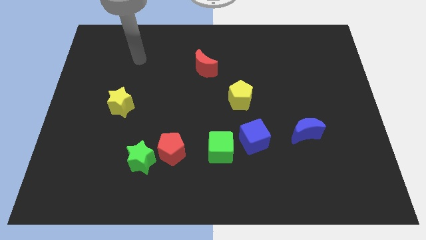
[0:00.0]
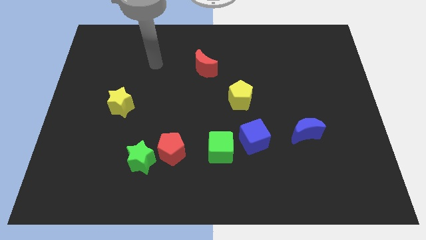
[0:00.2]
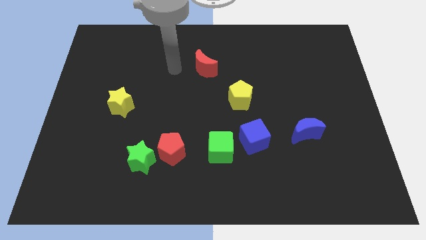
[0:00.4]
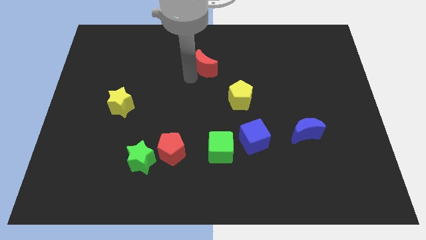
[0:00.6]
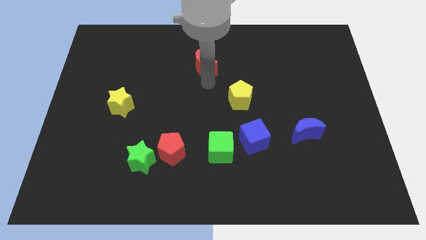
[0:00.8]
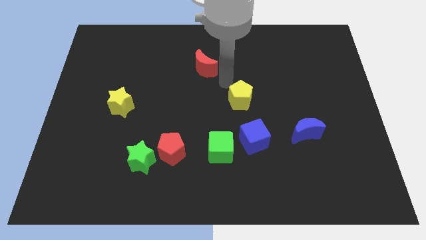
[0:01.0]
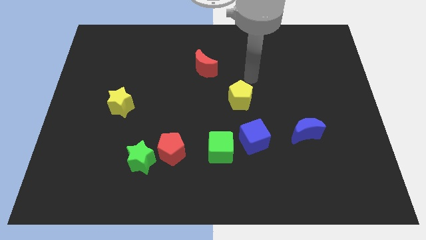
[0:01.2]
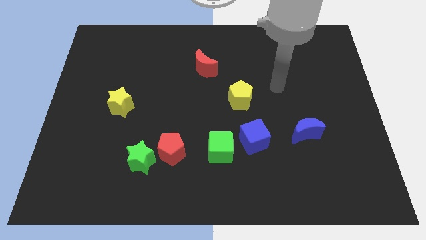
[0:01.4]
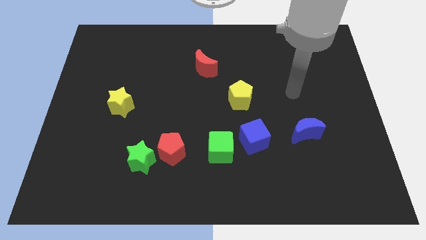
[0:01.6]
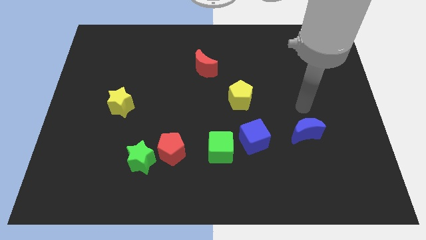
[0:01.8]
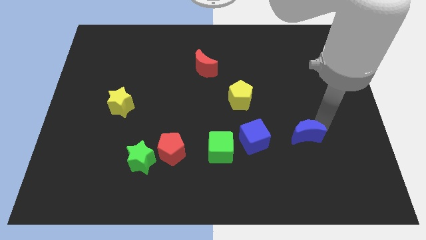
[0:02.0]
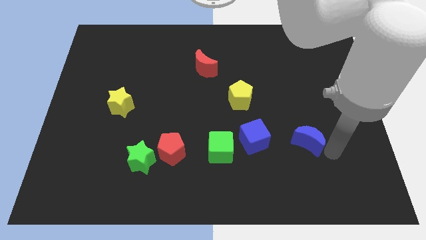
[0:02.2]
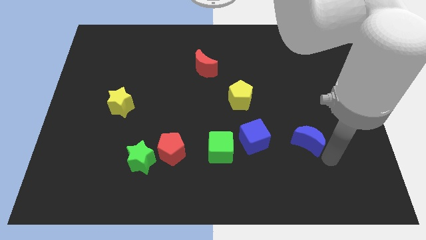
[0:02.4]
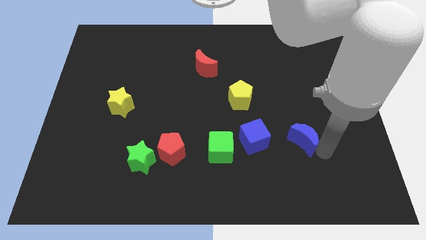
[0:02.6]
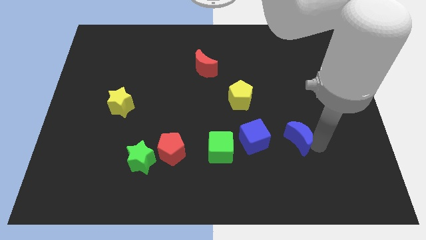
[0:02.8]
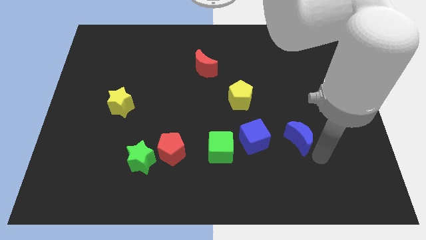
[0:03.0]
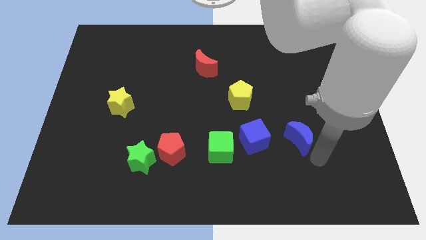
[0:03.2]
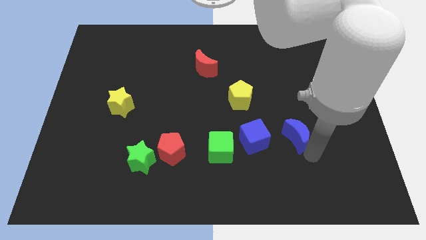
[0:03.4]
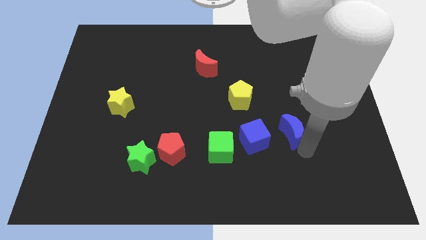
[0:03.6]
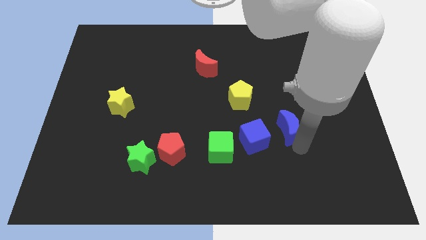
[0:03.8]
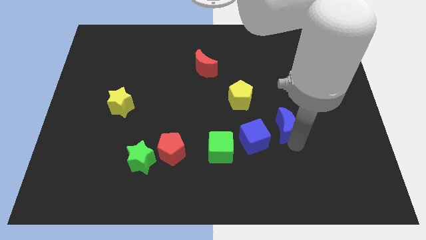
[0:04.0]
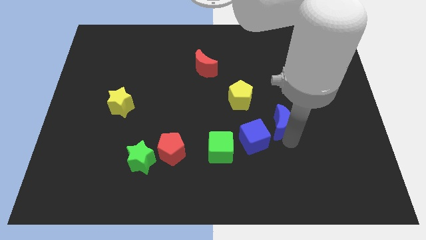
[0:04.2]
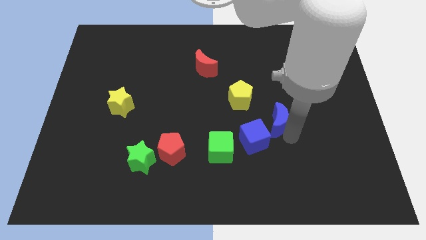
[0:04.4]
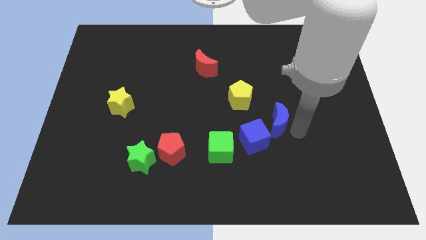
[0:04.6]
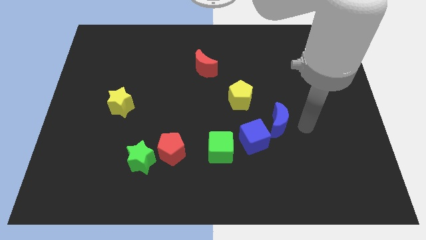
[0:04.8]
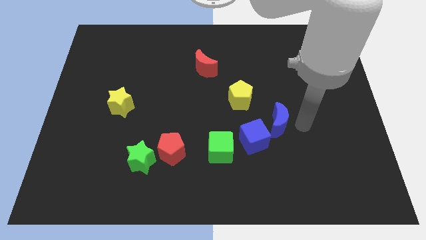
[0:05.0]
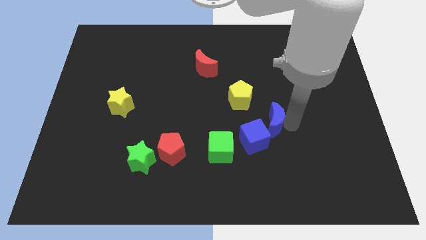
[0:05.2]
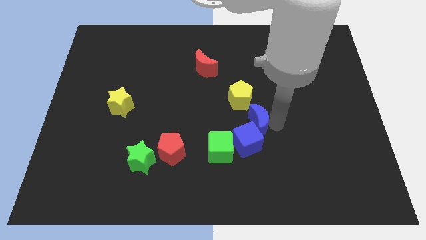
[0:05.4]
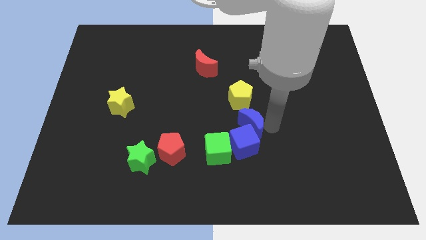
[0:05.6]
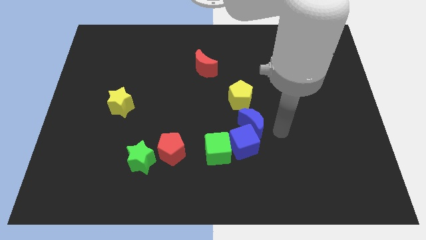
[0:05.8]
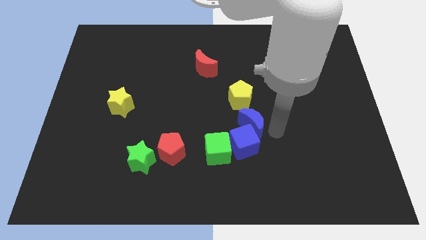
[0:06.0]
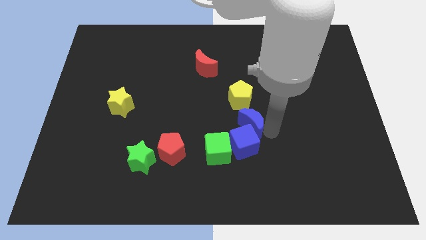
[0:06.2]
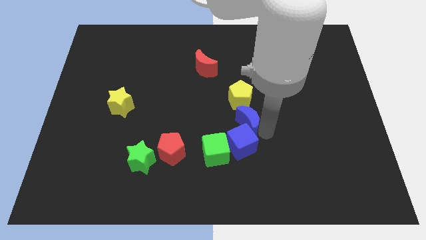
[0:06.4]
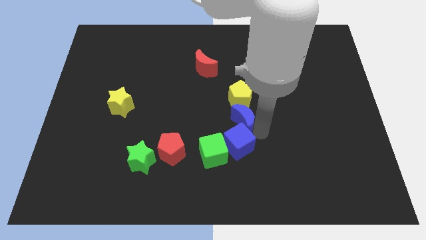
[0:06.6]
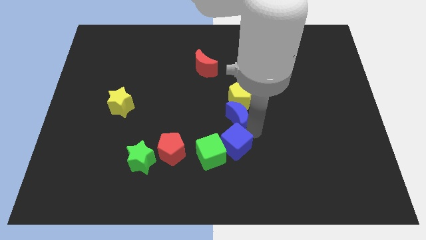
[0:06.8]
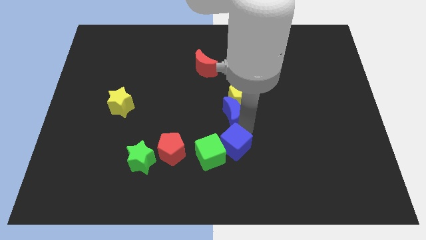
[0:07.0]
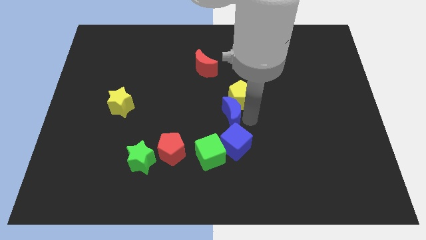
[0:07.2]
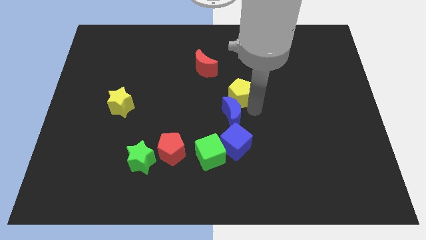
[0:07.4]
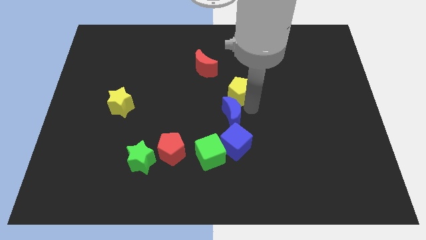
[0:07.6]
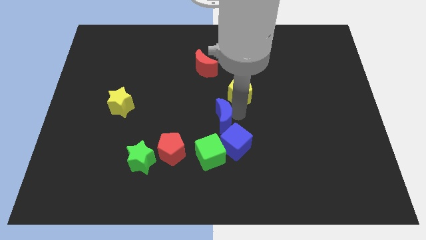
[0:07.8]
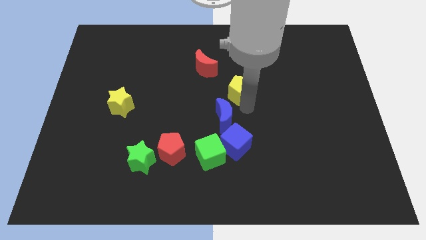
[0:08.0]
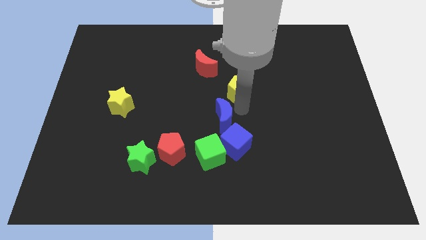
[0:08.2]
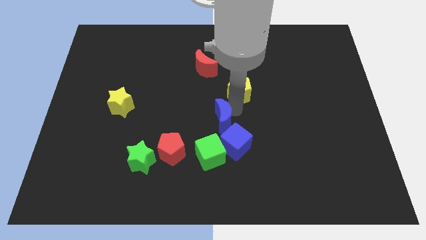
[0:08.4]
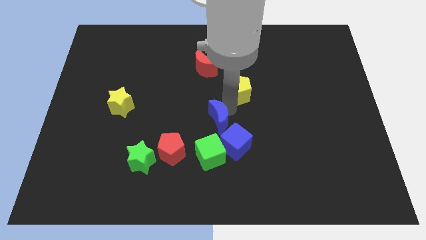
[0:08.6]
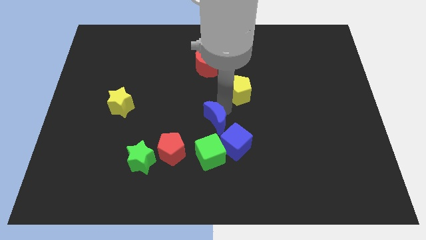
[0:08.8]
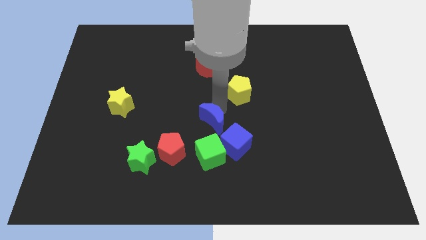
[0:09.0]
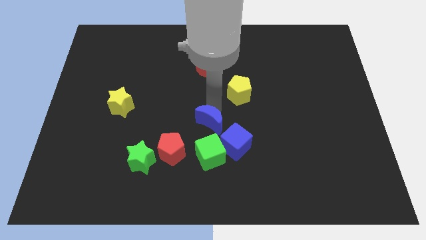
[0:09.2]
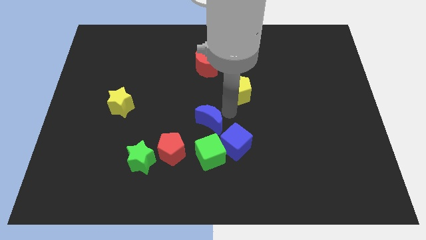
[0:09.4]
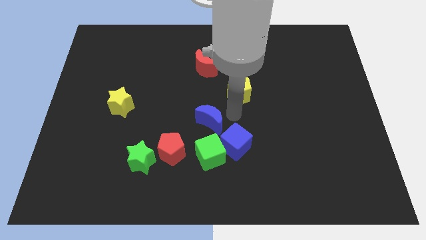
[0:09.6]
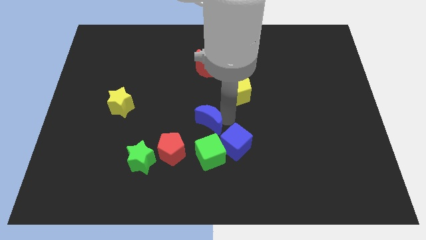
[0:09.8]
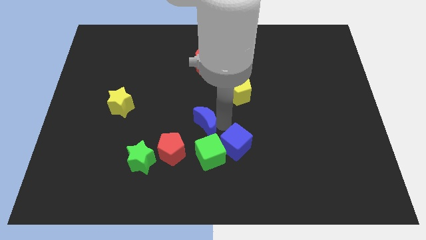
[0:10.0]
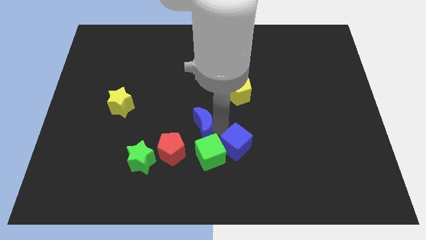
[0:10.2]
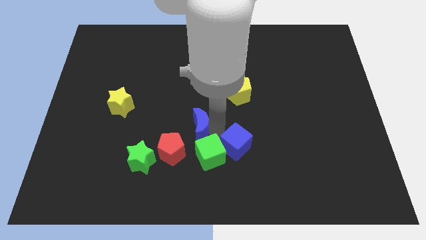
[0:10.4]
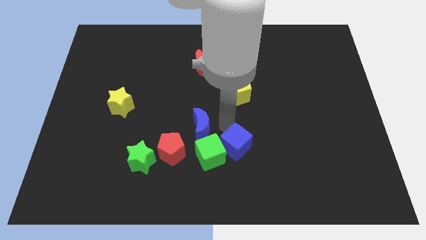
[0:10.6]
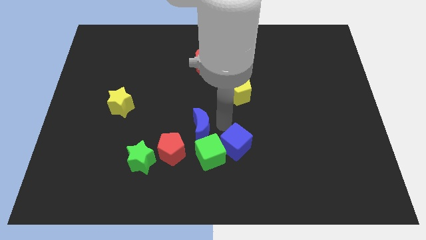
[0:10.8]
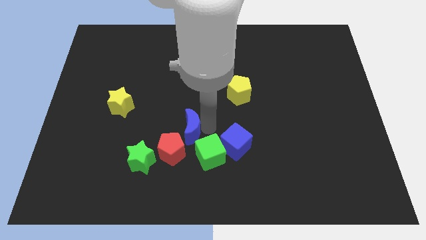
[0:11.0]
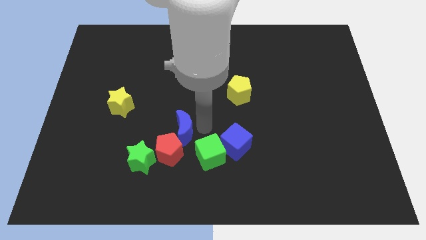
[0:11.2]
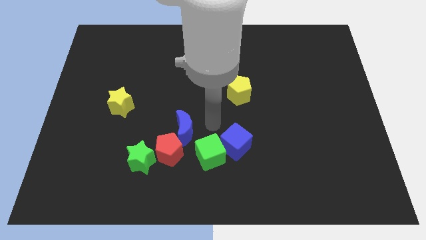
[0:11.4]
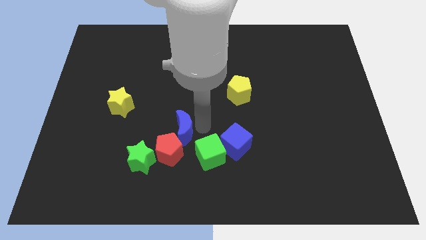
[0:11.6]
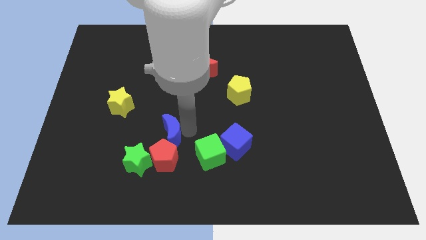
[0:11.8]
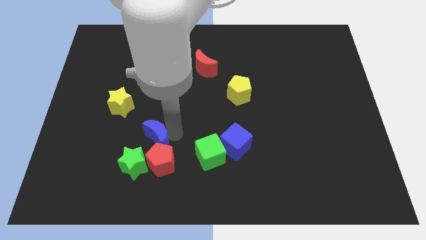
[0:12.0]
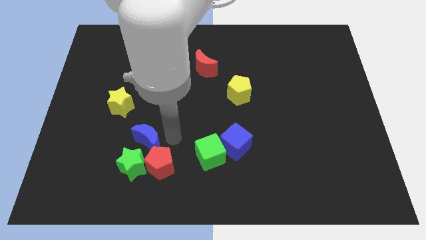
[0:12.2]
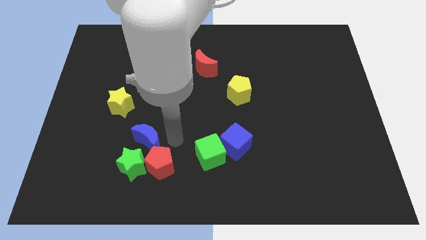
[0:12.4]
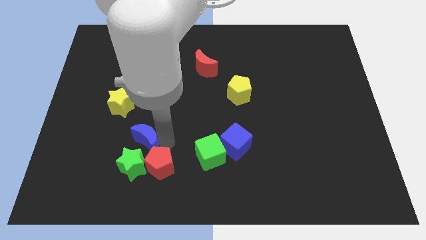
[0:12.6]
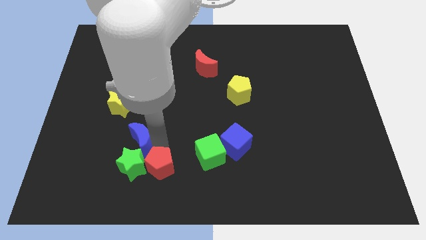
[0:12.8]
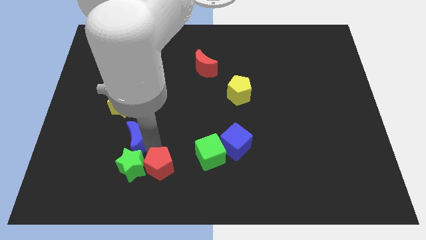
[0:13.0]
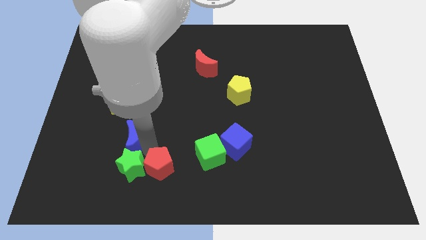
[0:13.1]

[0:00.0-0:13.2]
slide the blue moon to the bottom of the yellow star

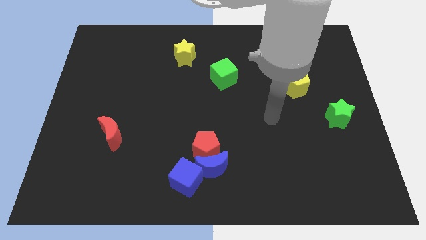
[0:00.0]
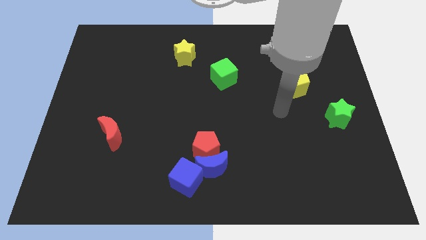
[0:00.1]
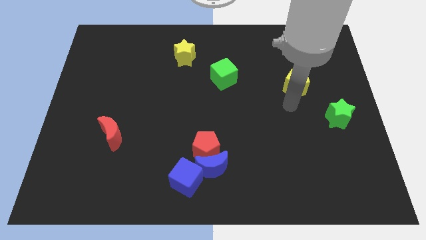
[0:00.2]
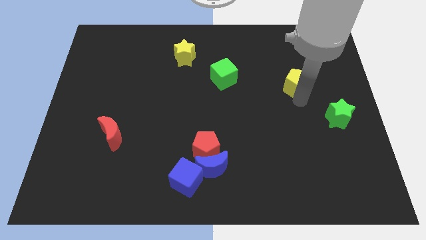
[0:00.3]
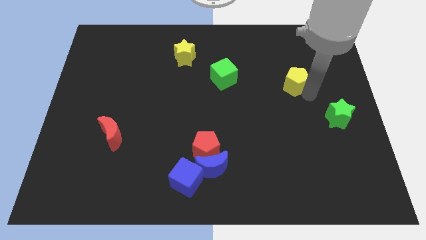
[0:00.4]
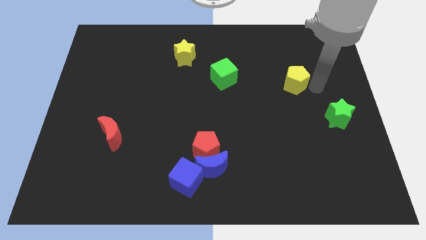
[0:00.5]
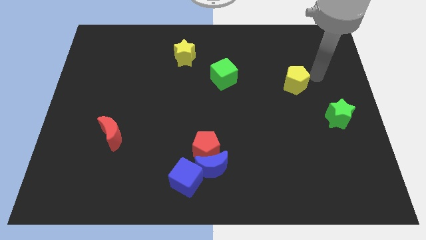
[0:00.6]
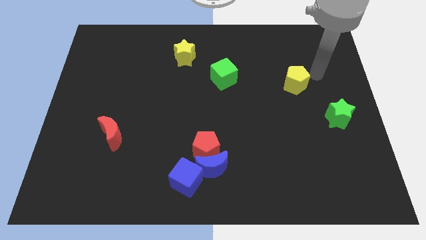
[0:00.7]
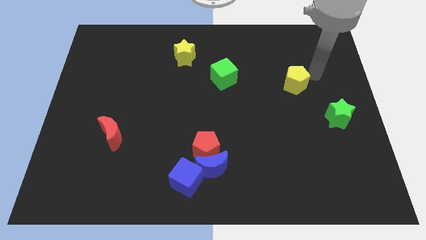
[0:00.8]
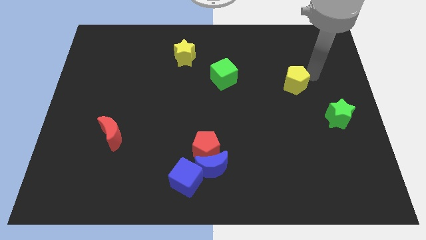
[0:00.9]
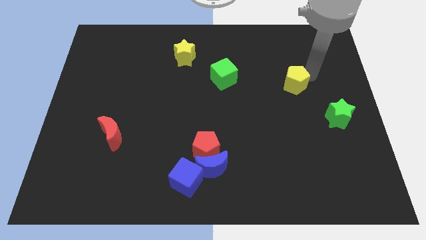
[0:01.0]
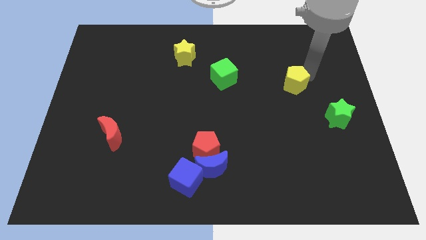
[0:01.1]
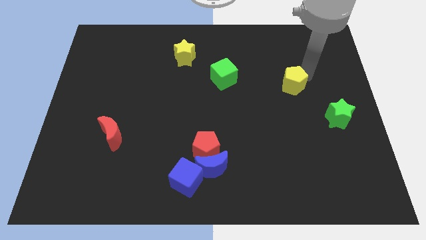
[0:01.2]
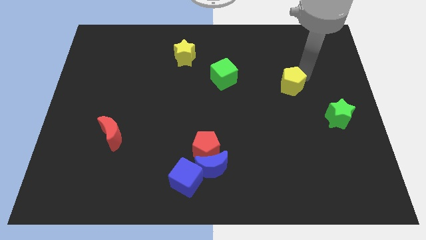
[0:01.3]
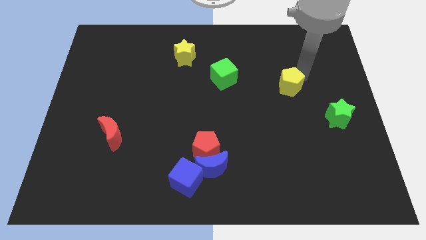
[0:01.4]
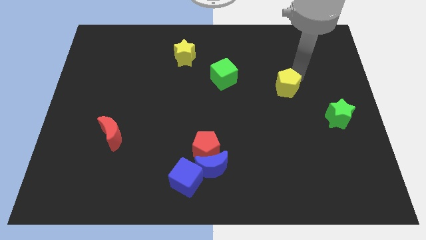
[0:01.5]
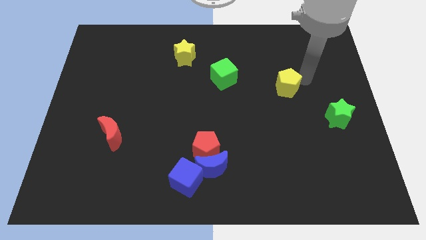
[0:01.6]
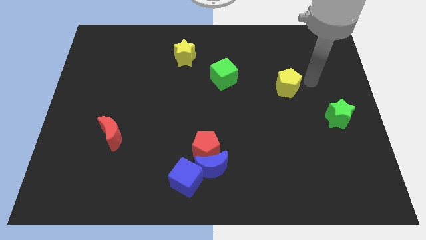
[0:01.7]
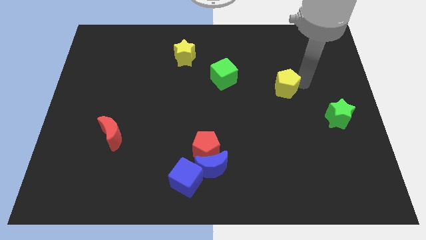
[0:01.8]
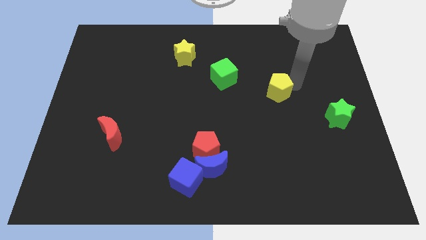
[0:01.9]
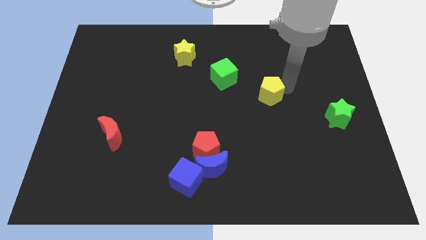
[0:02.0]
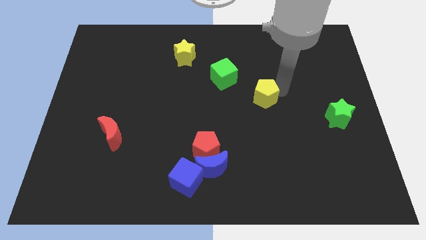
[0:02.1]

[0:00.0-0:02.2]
move the yellow pentagon to the bottom right side of the green cube
